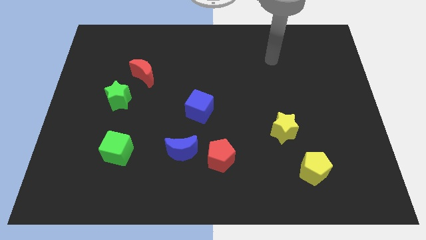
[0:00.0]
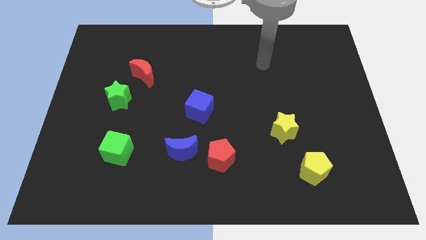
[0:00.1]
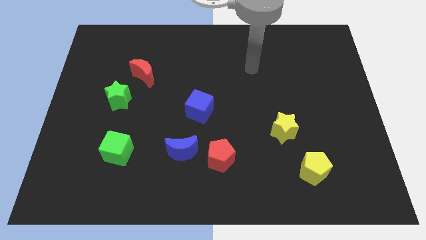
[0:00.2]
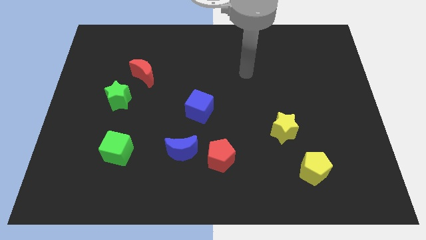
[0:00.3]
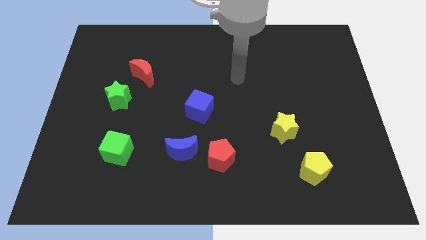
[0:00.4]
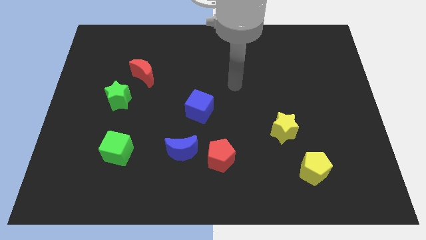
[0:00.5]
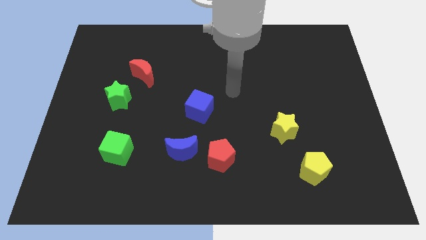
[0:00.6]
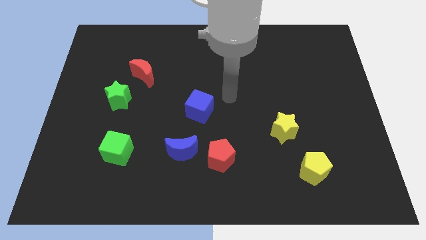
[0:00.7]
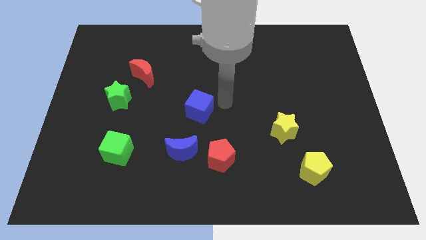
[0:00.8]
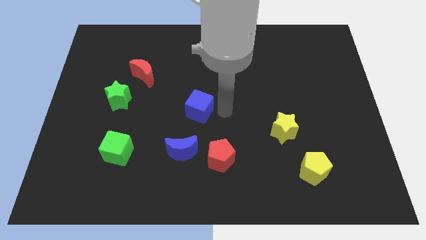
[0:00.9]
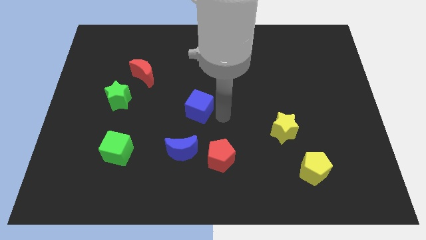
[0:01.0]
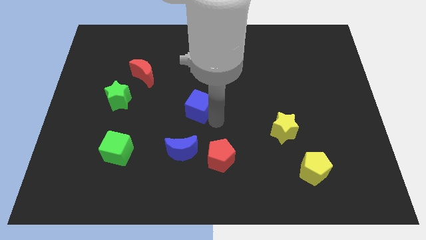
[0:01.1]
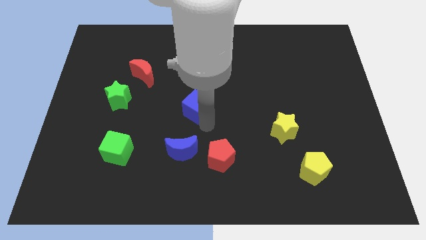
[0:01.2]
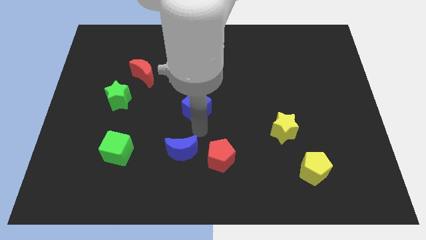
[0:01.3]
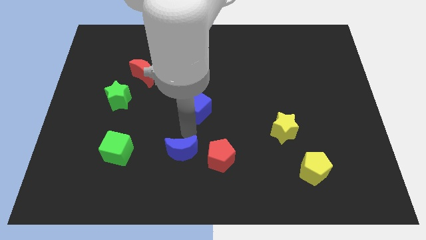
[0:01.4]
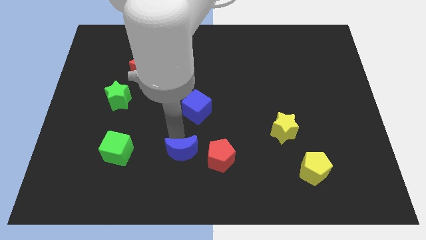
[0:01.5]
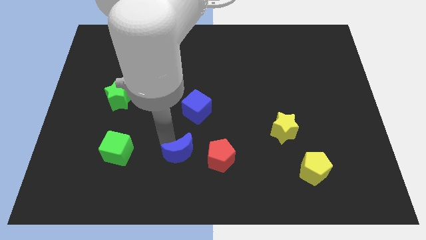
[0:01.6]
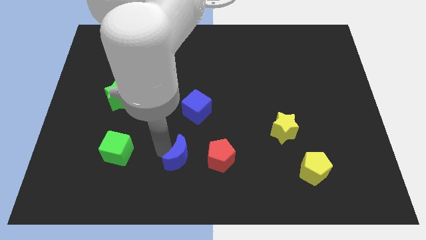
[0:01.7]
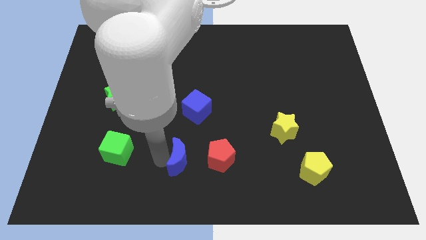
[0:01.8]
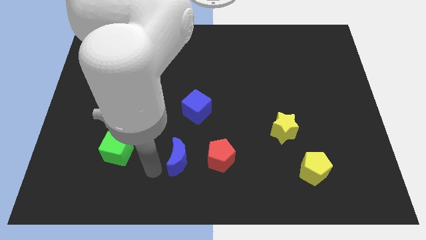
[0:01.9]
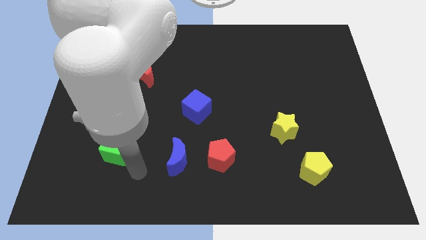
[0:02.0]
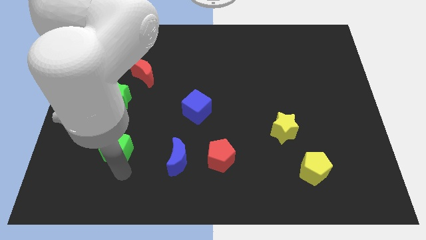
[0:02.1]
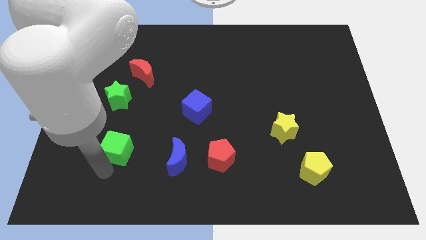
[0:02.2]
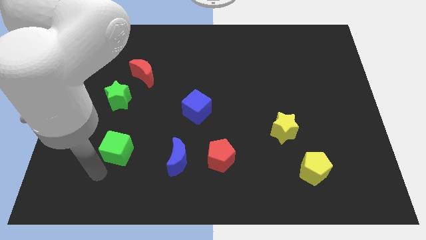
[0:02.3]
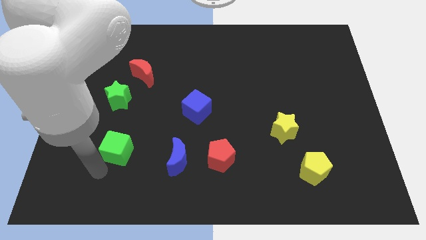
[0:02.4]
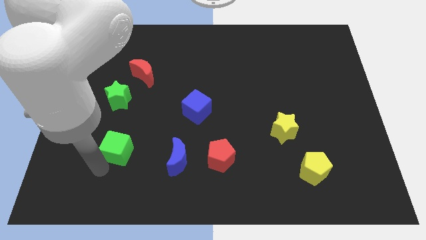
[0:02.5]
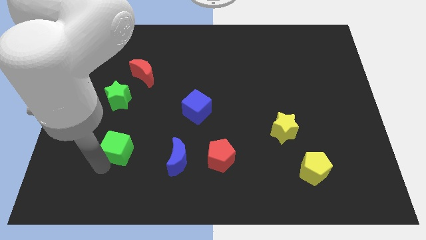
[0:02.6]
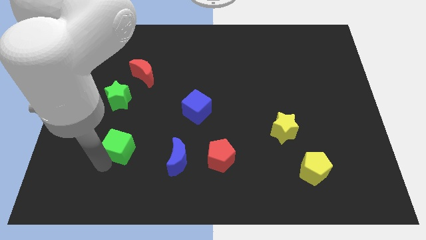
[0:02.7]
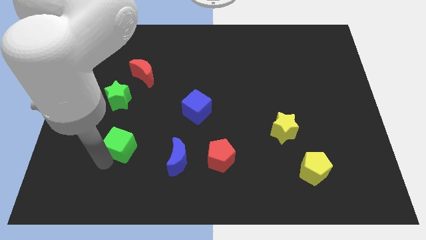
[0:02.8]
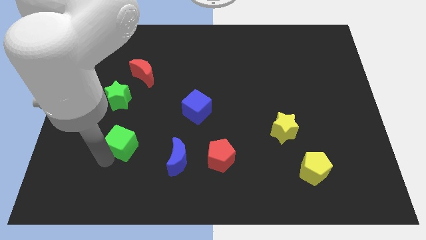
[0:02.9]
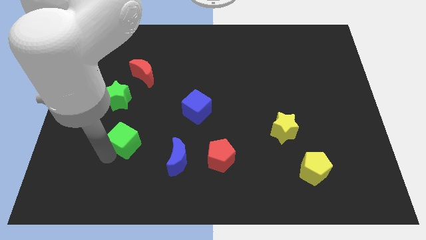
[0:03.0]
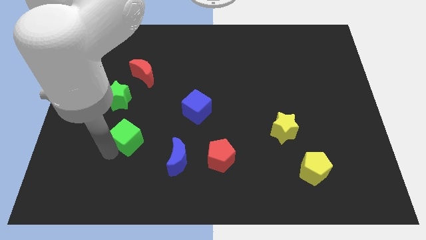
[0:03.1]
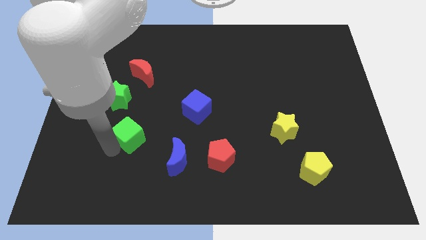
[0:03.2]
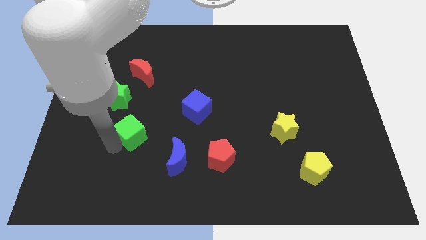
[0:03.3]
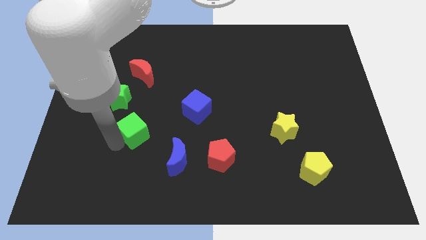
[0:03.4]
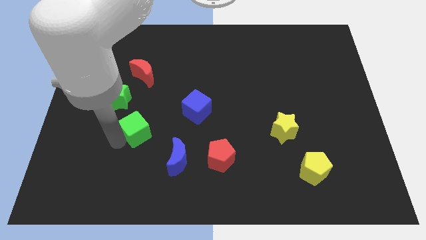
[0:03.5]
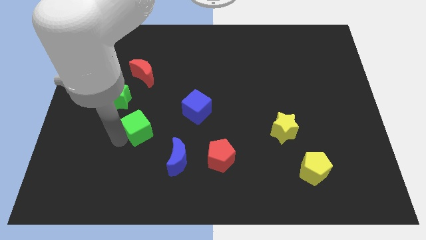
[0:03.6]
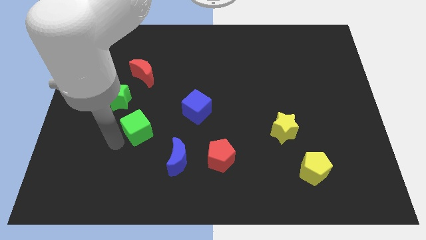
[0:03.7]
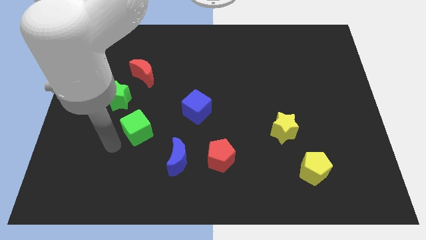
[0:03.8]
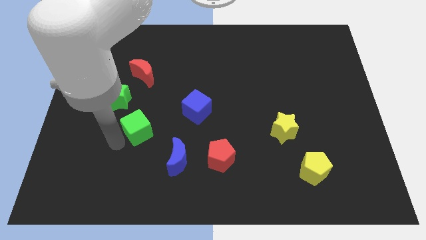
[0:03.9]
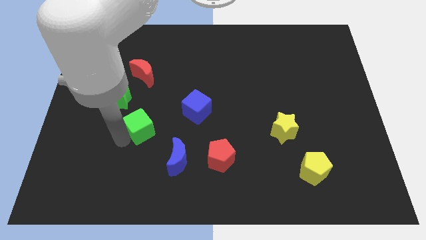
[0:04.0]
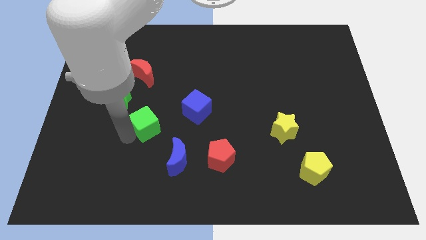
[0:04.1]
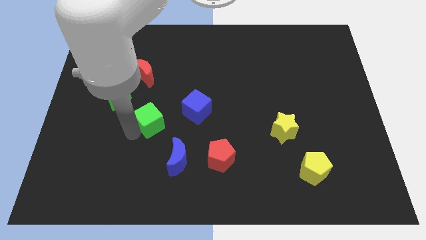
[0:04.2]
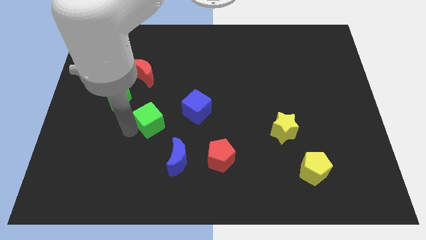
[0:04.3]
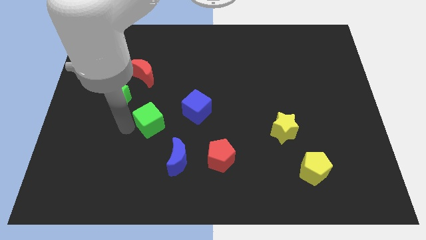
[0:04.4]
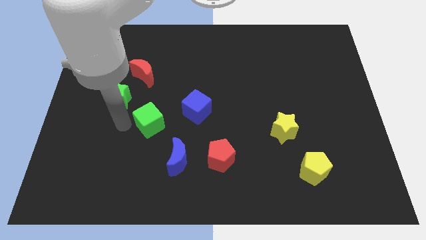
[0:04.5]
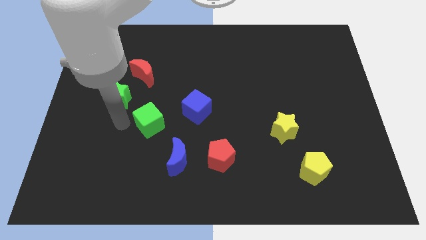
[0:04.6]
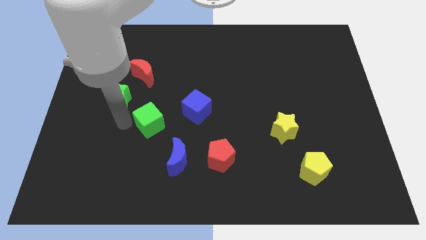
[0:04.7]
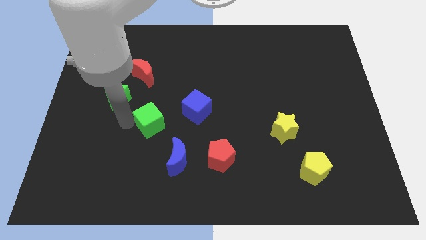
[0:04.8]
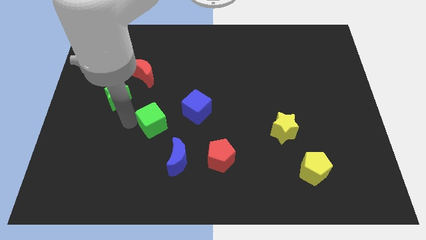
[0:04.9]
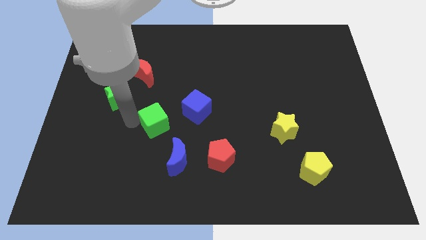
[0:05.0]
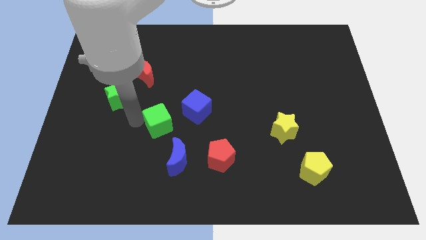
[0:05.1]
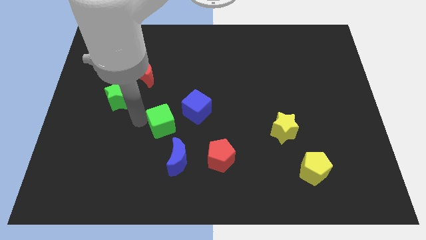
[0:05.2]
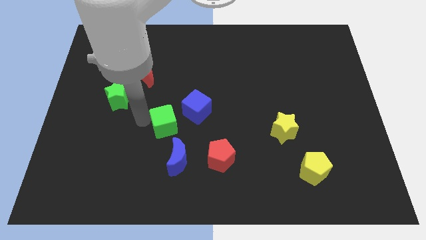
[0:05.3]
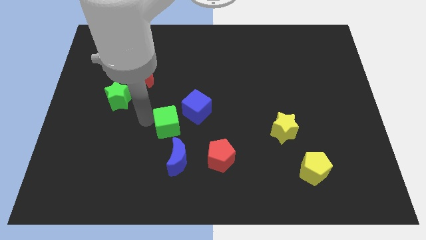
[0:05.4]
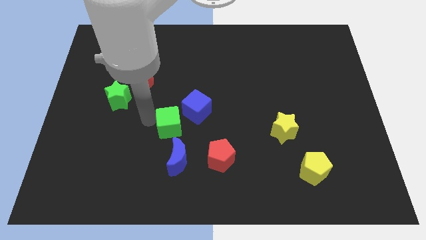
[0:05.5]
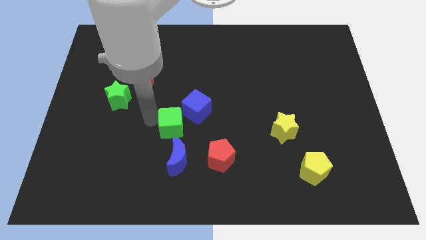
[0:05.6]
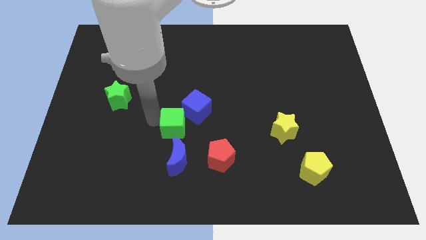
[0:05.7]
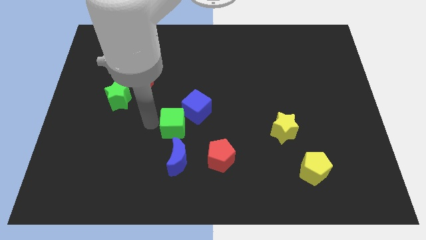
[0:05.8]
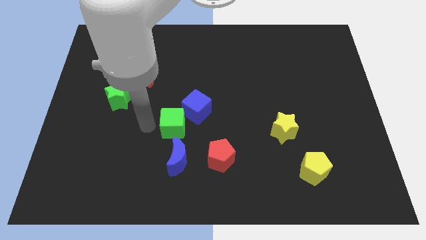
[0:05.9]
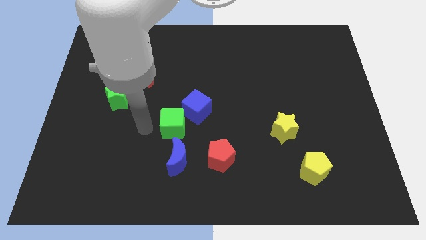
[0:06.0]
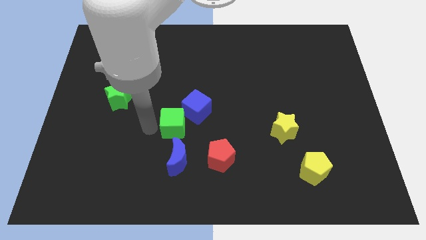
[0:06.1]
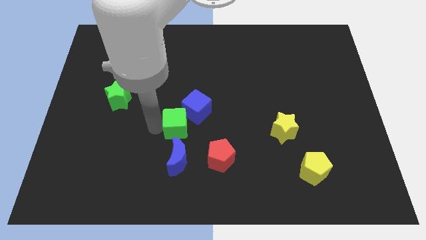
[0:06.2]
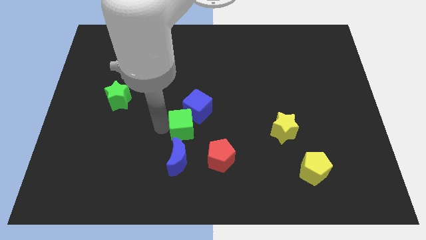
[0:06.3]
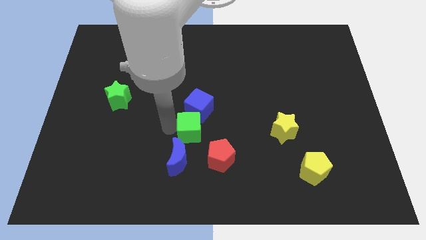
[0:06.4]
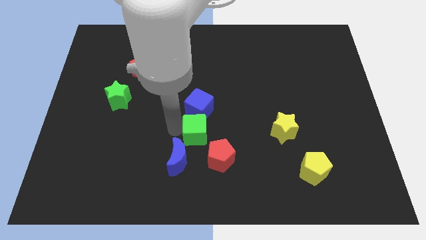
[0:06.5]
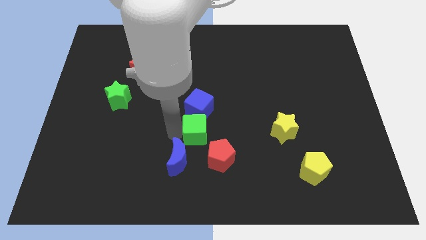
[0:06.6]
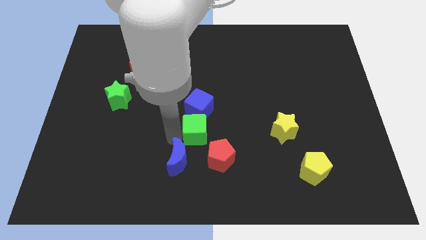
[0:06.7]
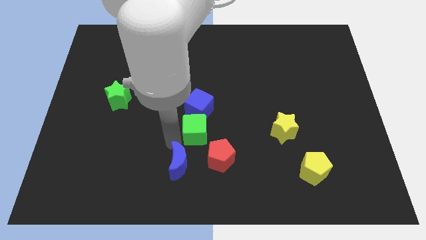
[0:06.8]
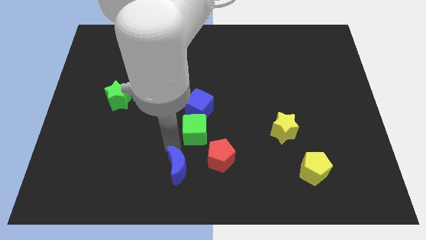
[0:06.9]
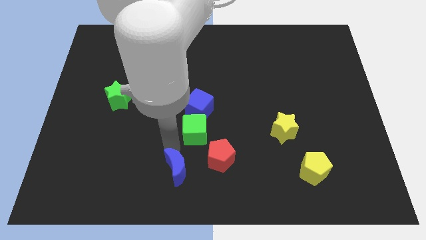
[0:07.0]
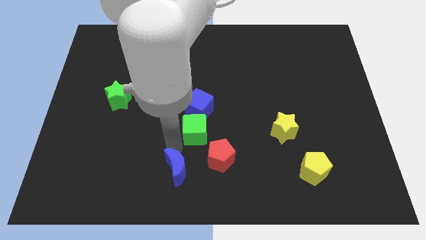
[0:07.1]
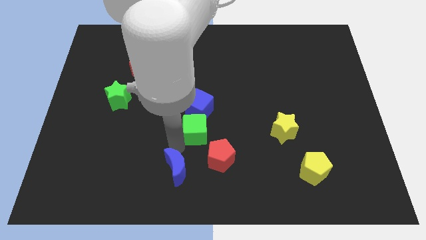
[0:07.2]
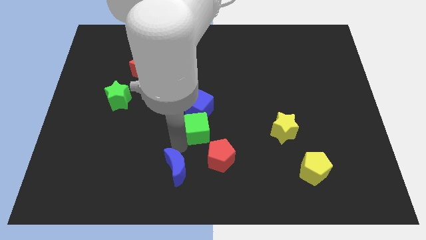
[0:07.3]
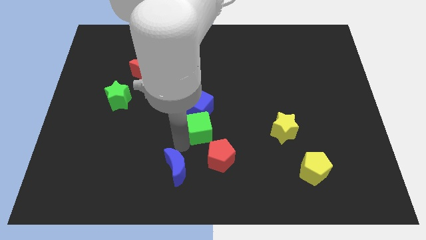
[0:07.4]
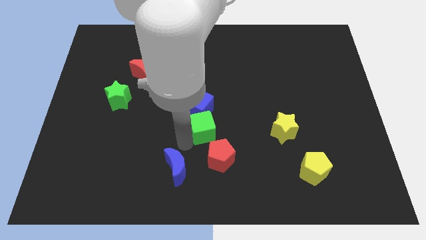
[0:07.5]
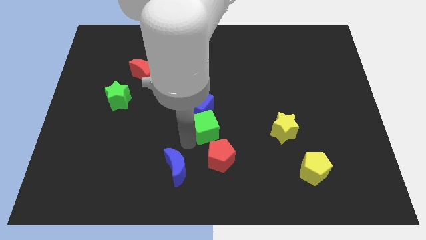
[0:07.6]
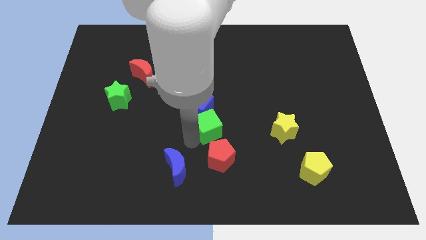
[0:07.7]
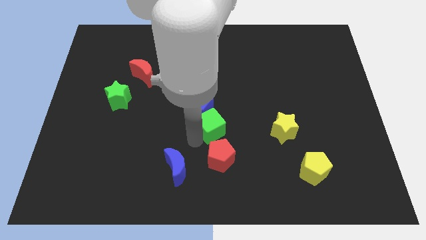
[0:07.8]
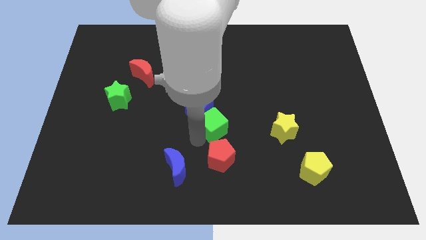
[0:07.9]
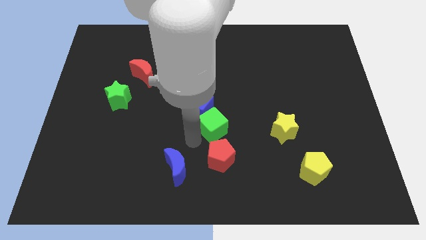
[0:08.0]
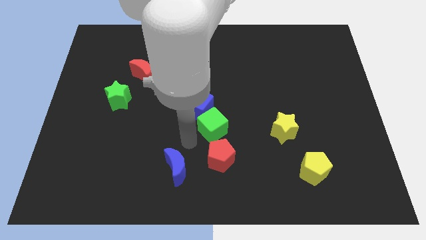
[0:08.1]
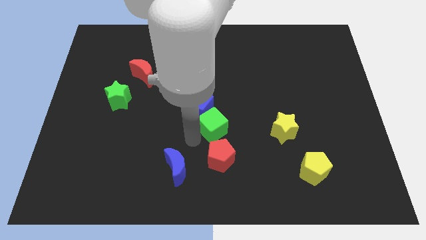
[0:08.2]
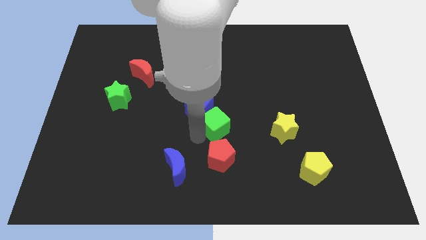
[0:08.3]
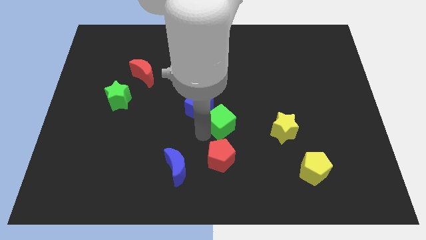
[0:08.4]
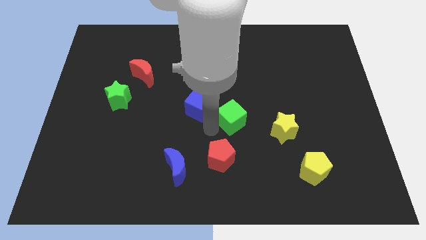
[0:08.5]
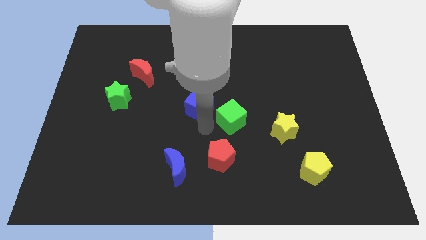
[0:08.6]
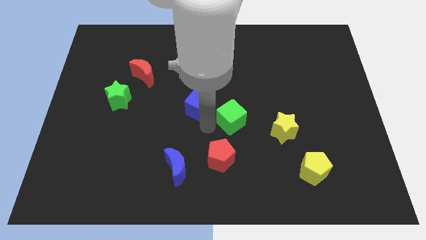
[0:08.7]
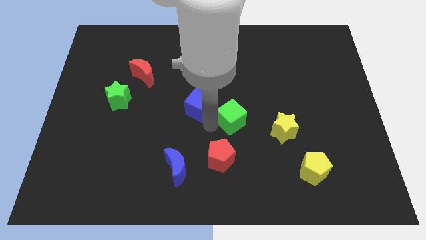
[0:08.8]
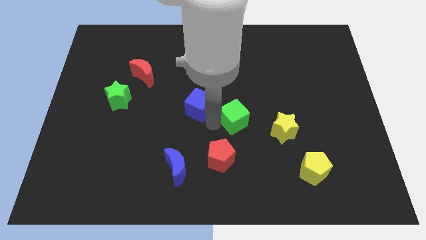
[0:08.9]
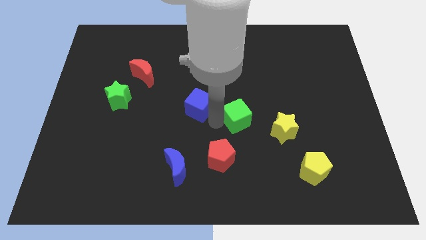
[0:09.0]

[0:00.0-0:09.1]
push the green cube to the top left of the yellow star
